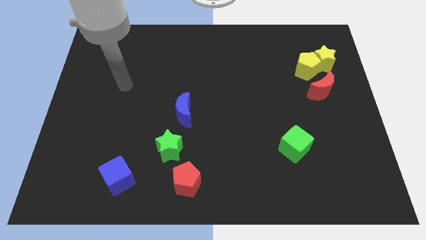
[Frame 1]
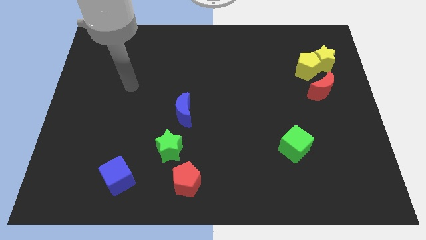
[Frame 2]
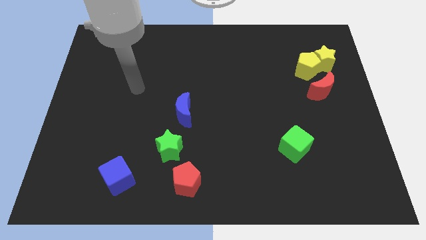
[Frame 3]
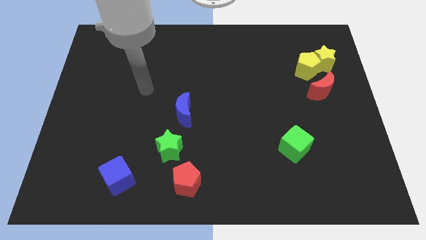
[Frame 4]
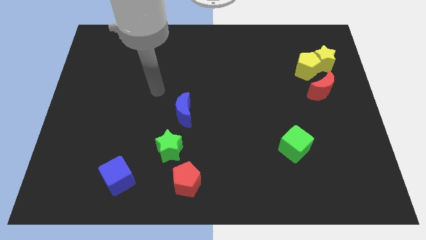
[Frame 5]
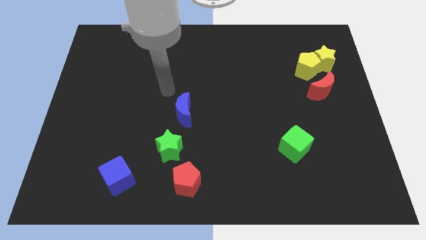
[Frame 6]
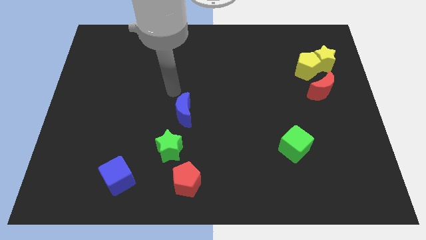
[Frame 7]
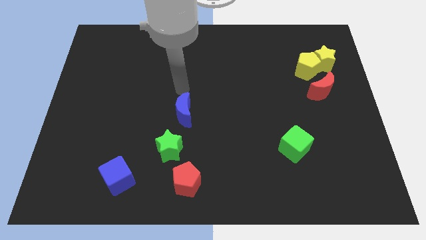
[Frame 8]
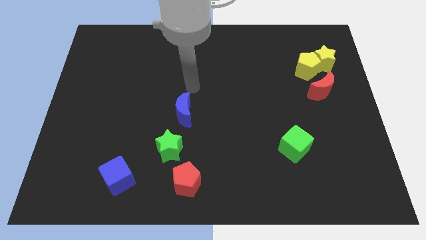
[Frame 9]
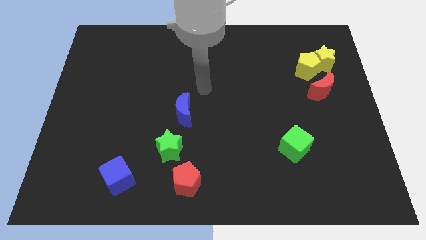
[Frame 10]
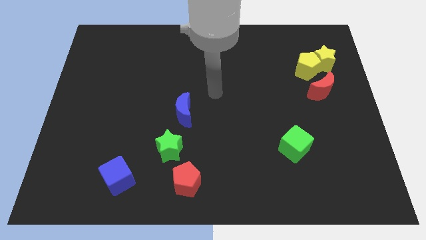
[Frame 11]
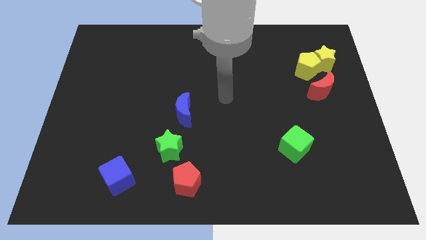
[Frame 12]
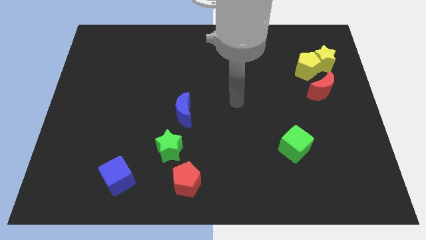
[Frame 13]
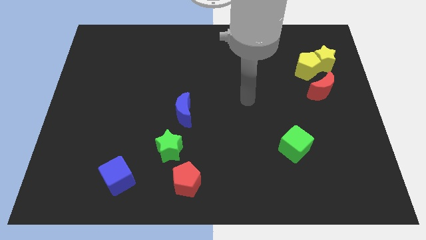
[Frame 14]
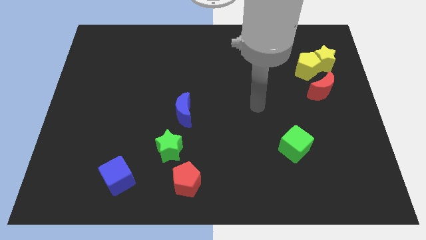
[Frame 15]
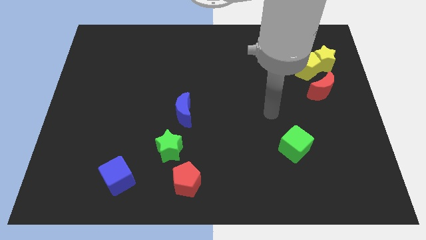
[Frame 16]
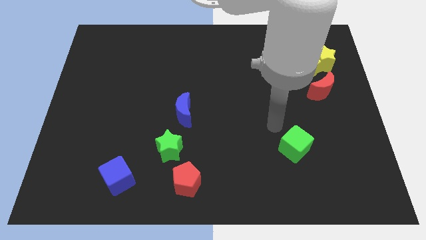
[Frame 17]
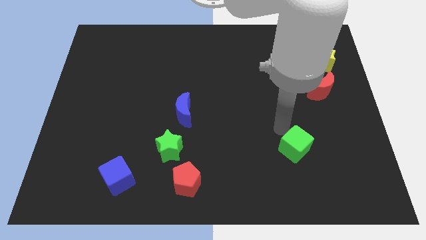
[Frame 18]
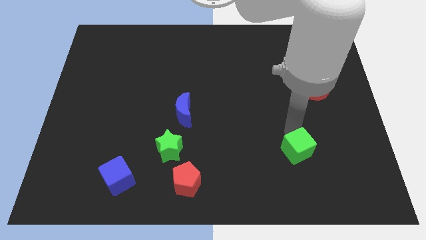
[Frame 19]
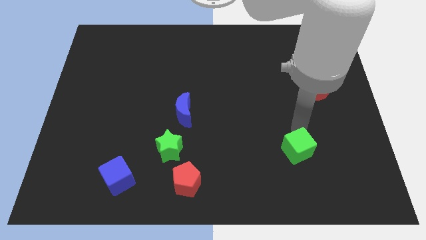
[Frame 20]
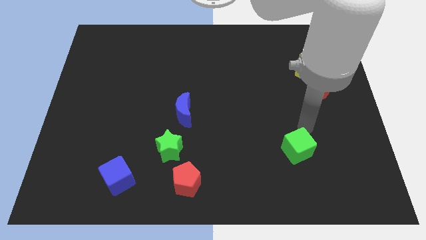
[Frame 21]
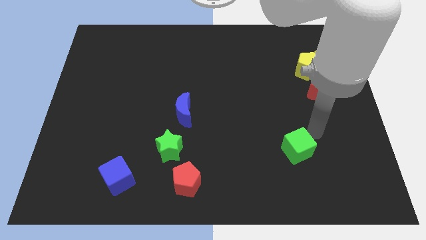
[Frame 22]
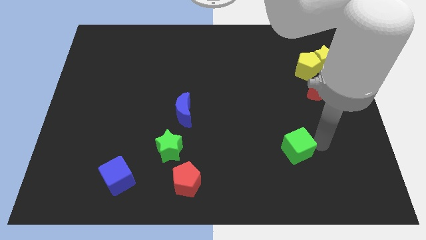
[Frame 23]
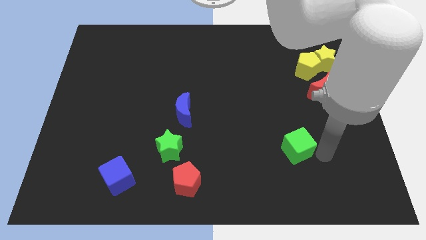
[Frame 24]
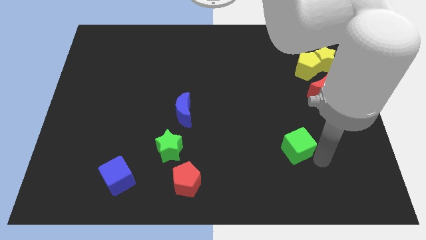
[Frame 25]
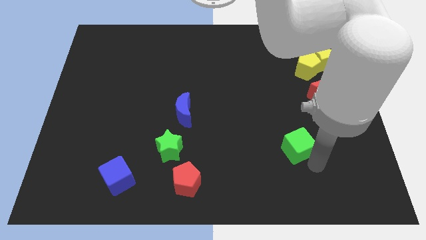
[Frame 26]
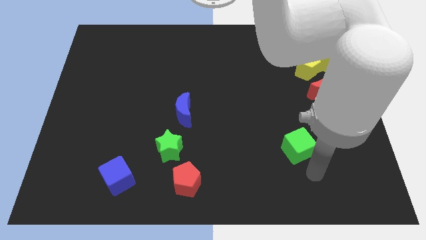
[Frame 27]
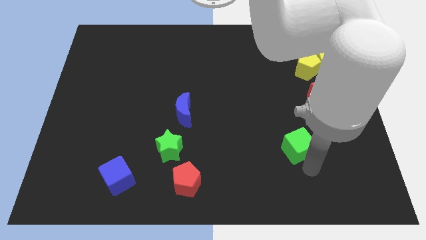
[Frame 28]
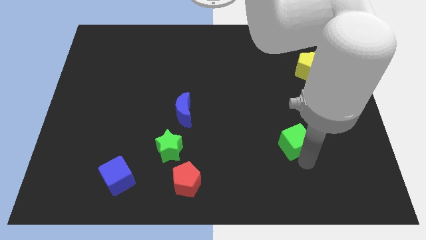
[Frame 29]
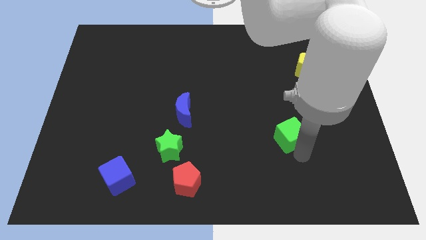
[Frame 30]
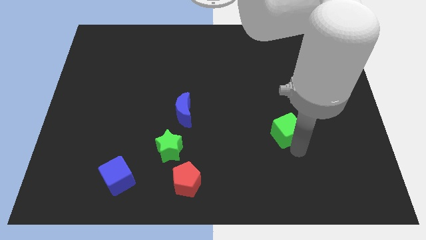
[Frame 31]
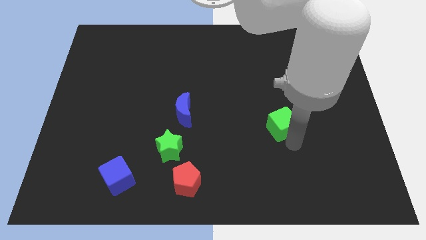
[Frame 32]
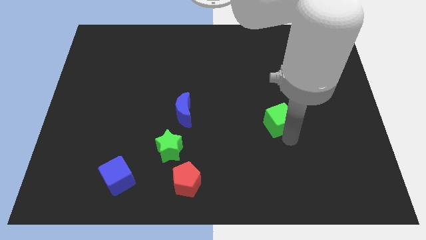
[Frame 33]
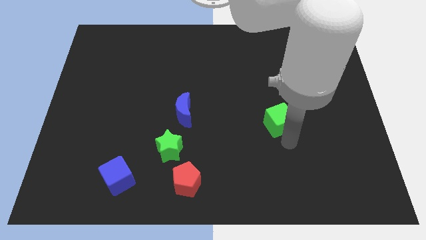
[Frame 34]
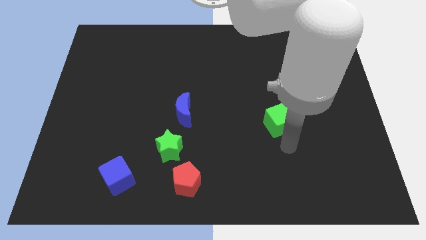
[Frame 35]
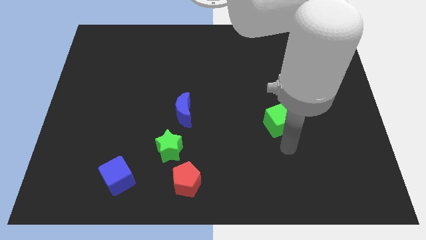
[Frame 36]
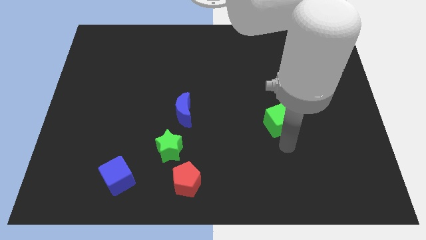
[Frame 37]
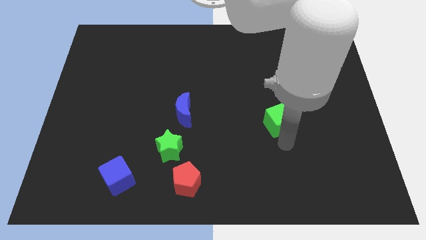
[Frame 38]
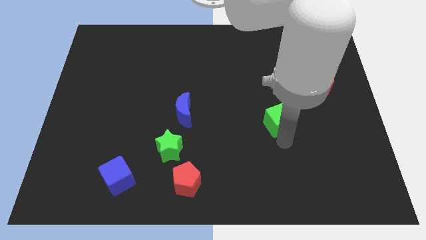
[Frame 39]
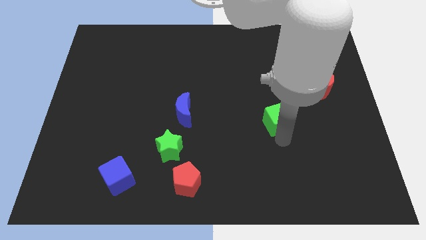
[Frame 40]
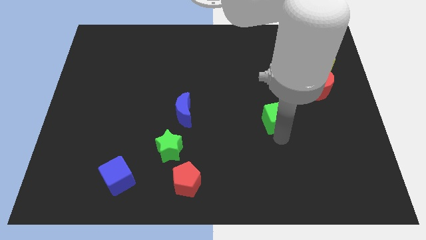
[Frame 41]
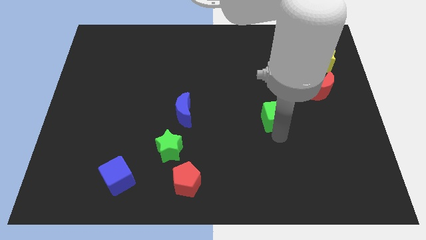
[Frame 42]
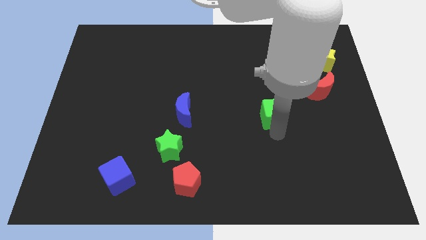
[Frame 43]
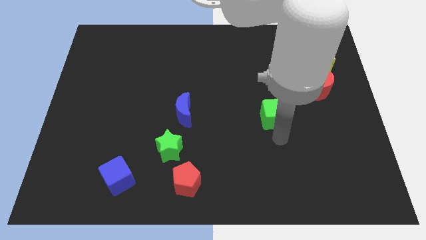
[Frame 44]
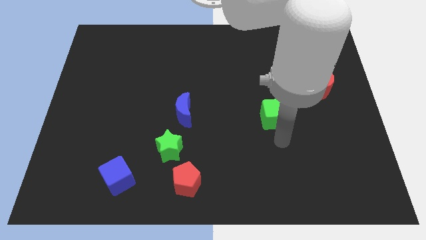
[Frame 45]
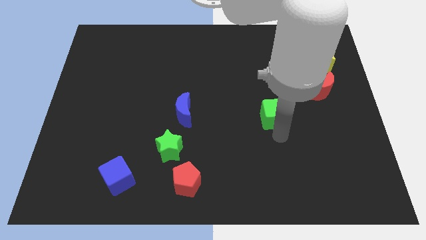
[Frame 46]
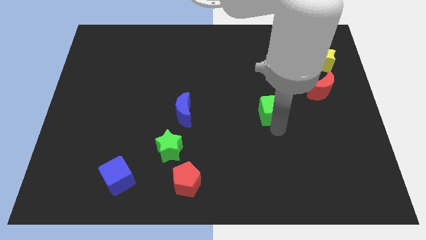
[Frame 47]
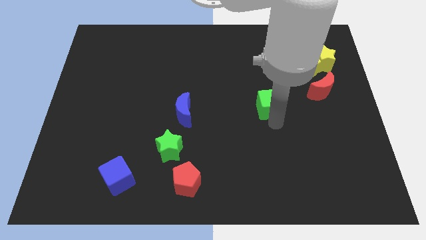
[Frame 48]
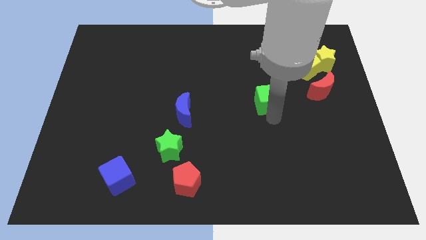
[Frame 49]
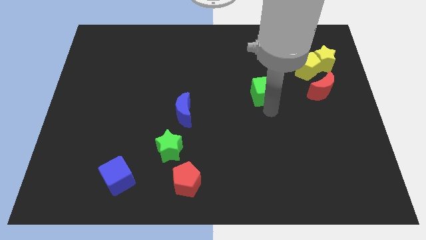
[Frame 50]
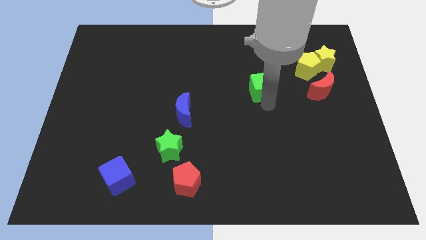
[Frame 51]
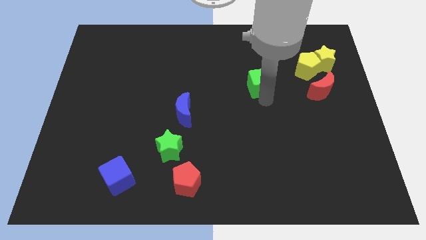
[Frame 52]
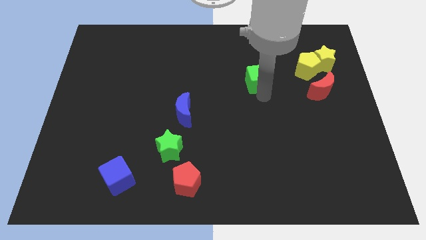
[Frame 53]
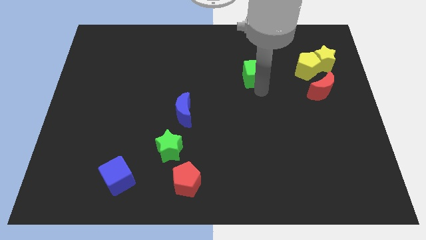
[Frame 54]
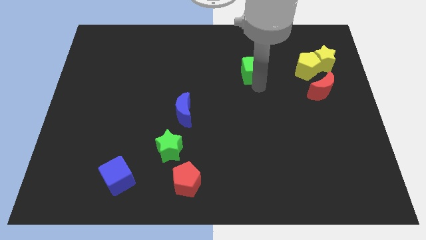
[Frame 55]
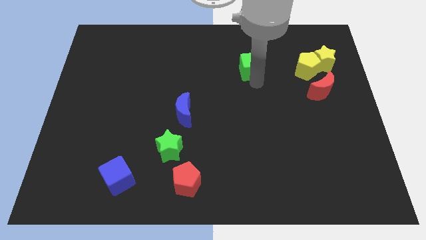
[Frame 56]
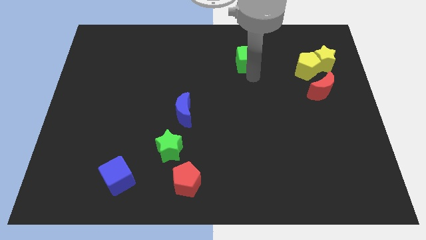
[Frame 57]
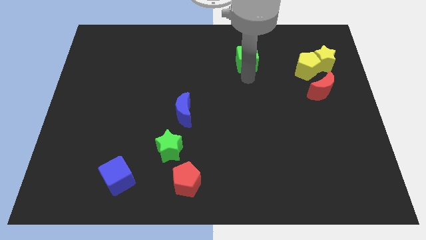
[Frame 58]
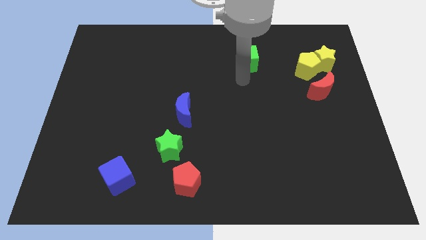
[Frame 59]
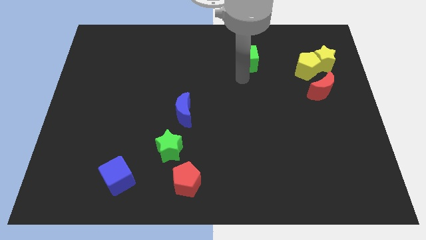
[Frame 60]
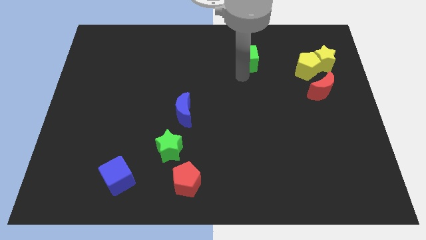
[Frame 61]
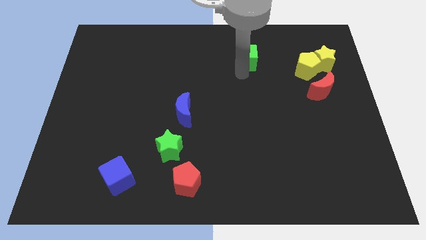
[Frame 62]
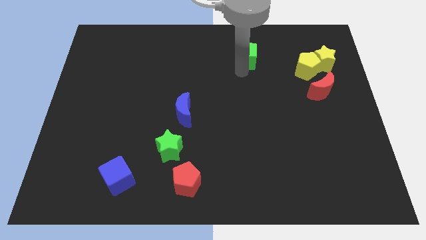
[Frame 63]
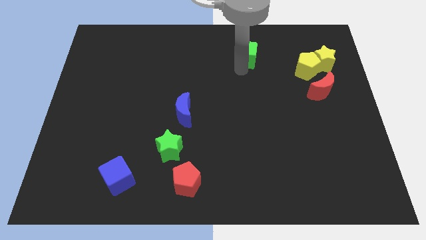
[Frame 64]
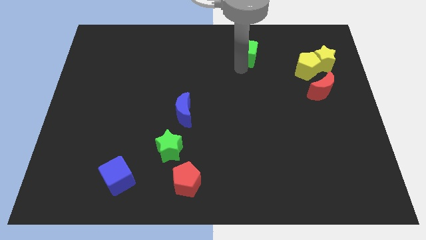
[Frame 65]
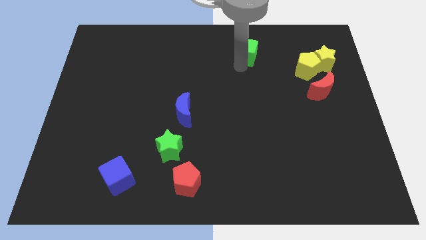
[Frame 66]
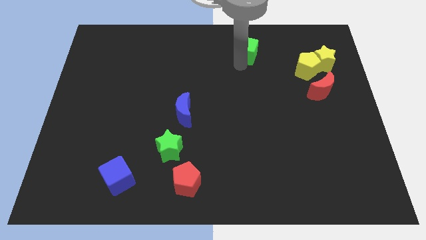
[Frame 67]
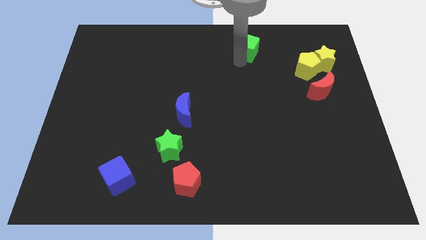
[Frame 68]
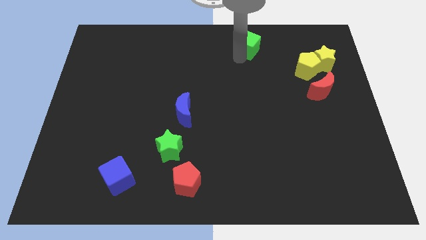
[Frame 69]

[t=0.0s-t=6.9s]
push the green cube to the top

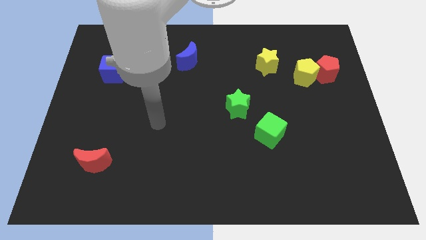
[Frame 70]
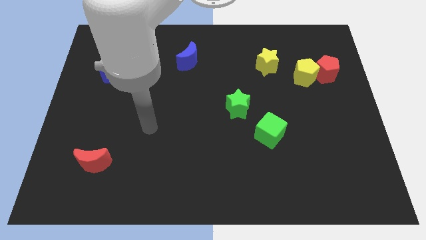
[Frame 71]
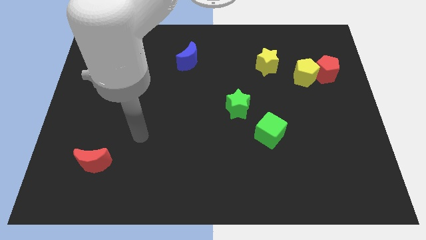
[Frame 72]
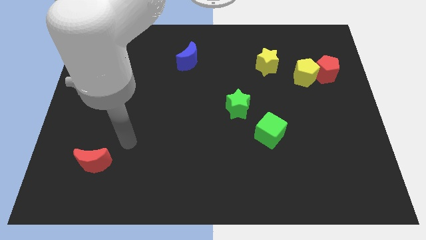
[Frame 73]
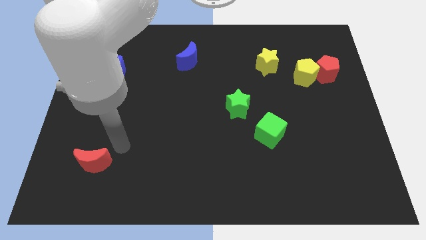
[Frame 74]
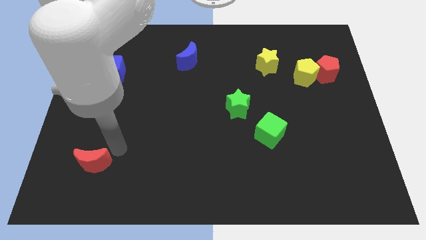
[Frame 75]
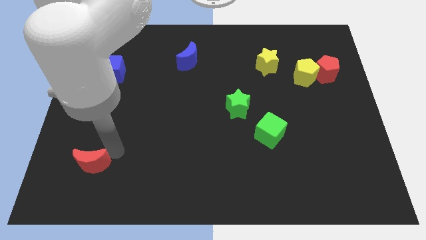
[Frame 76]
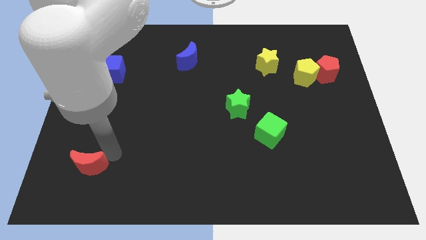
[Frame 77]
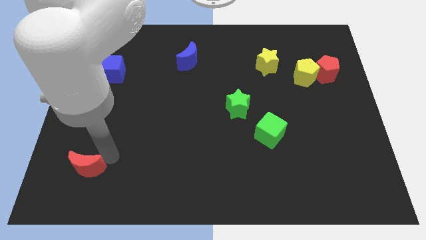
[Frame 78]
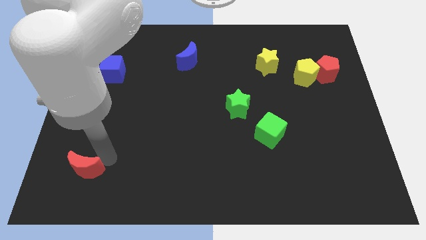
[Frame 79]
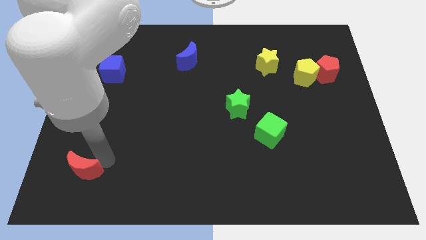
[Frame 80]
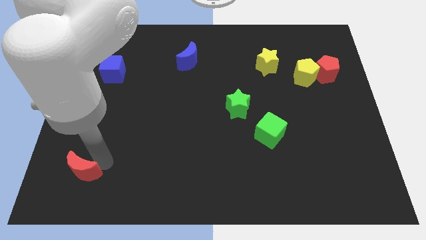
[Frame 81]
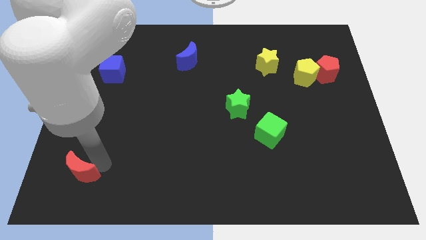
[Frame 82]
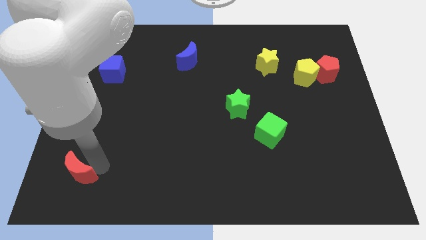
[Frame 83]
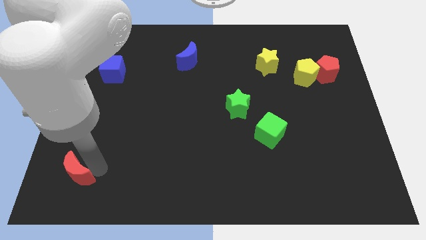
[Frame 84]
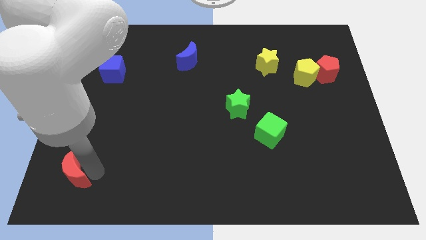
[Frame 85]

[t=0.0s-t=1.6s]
move the red moon to the bottom left
